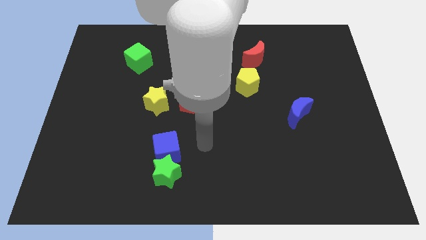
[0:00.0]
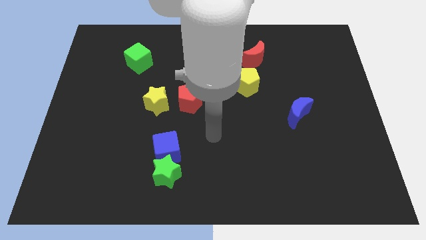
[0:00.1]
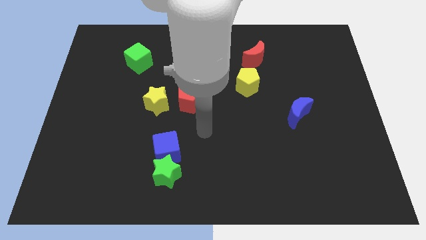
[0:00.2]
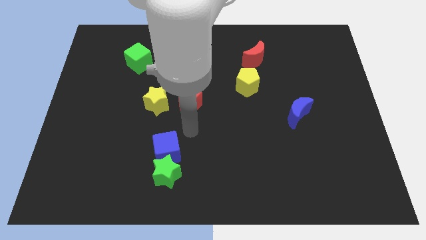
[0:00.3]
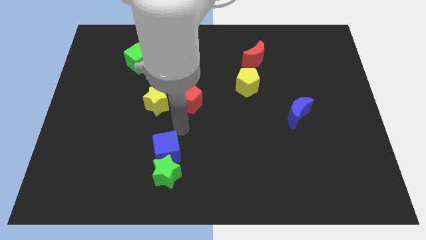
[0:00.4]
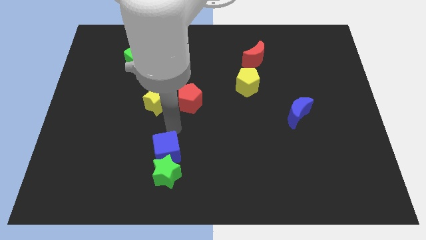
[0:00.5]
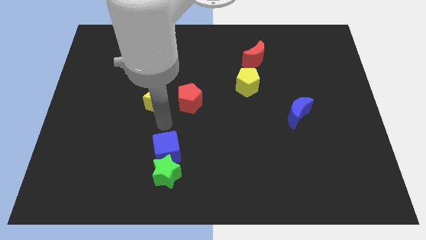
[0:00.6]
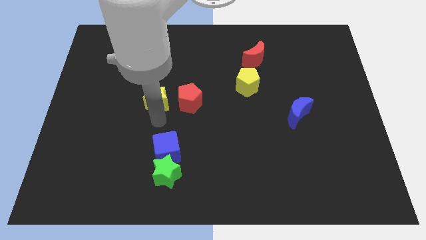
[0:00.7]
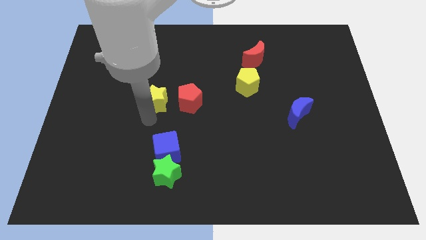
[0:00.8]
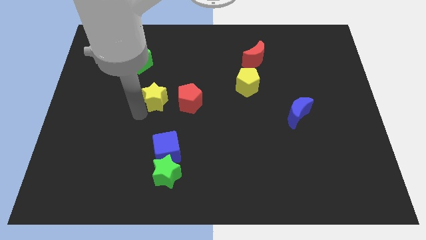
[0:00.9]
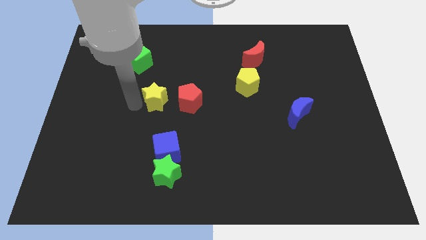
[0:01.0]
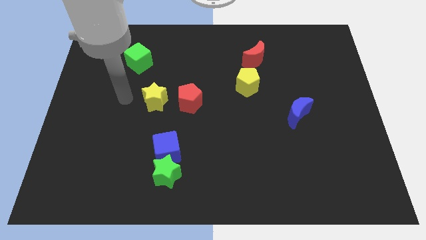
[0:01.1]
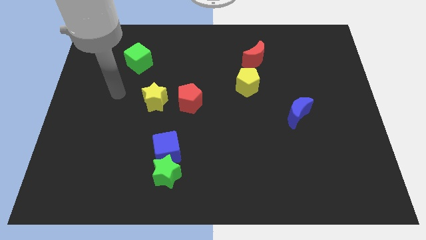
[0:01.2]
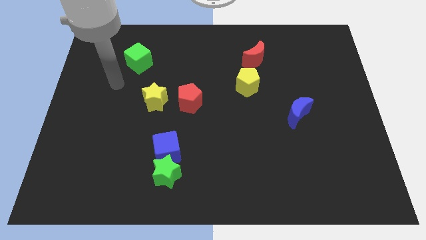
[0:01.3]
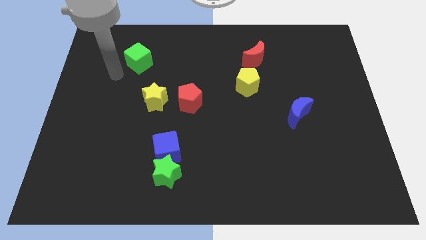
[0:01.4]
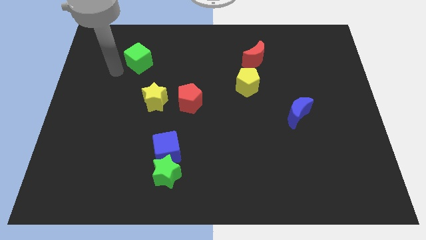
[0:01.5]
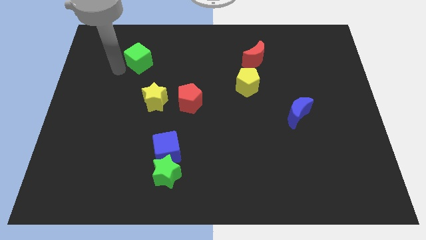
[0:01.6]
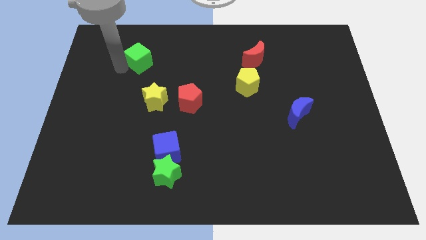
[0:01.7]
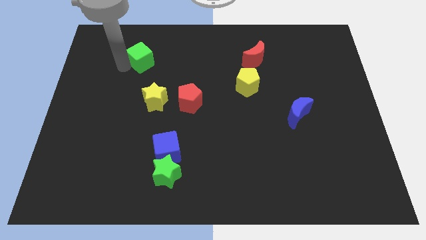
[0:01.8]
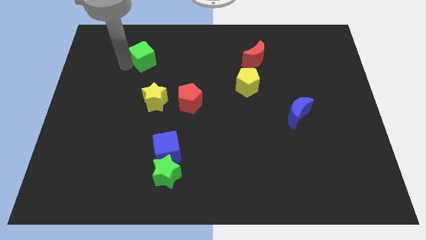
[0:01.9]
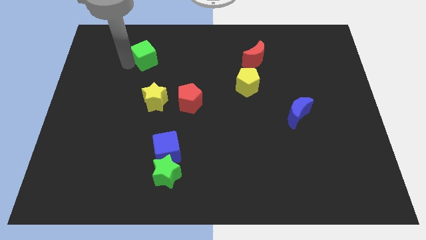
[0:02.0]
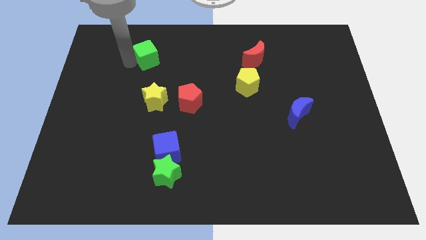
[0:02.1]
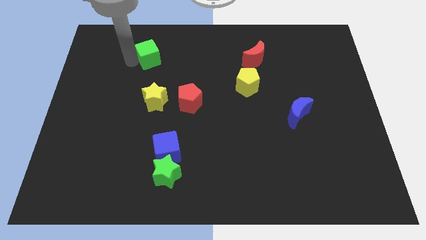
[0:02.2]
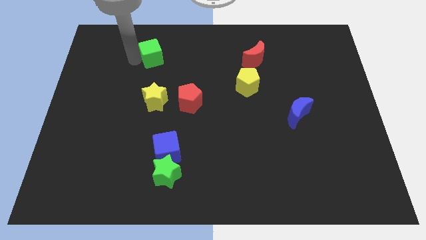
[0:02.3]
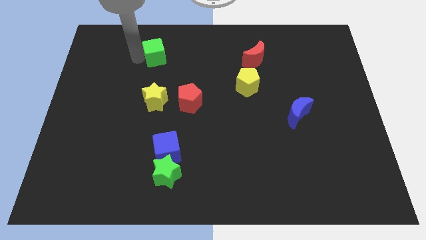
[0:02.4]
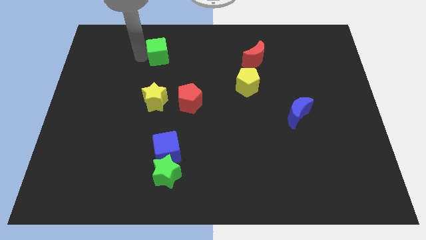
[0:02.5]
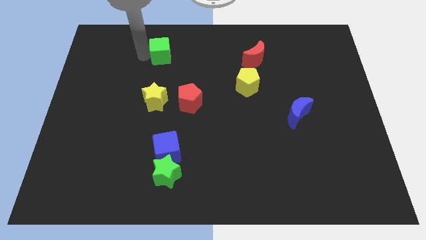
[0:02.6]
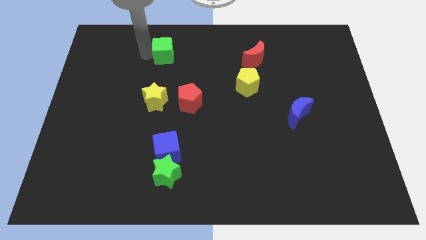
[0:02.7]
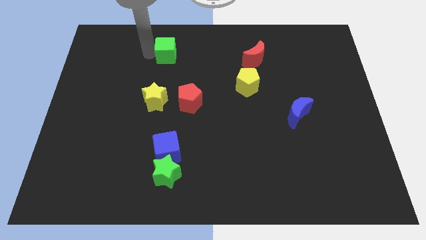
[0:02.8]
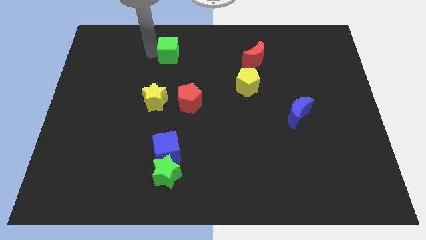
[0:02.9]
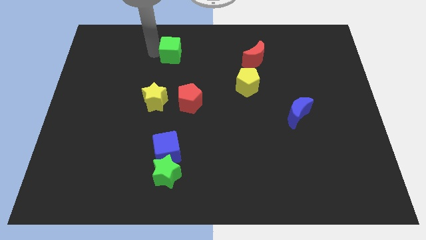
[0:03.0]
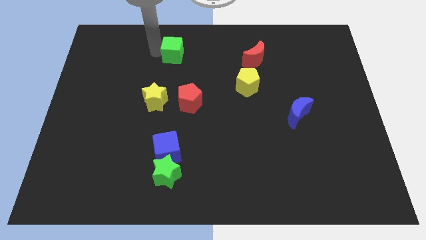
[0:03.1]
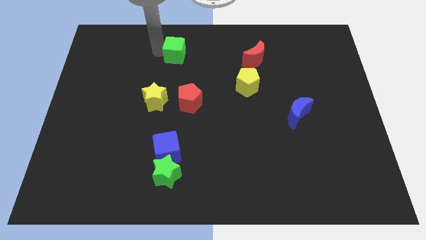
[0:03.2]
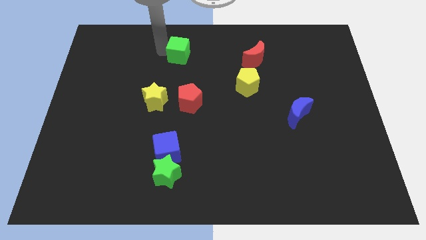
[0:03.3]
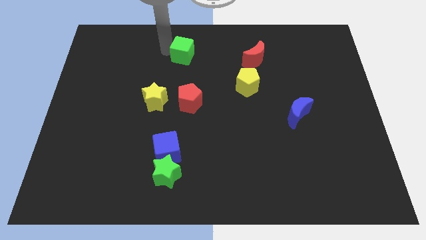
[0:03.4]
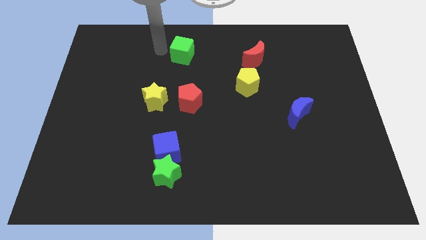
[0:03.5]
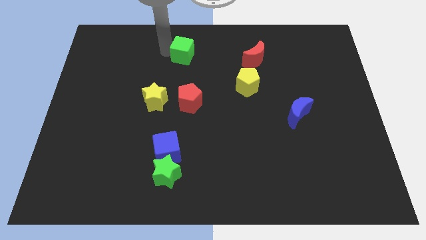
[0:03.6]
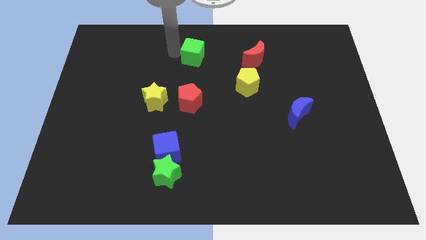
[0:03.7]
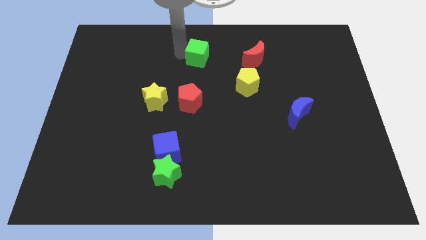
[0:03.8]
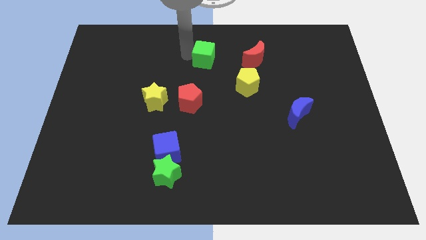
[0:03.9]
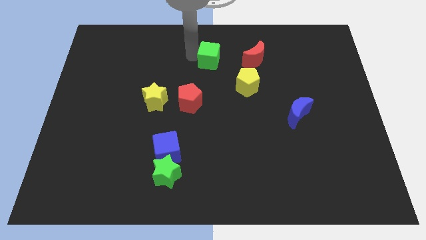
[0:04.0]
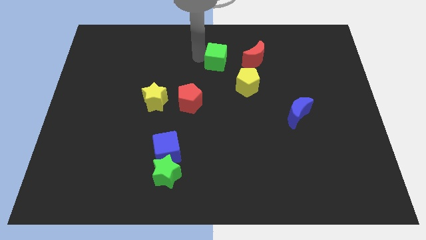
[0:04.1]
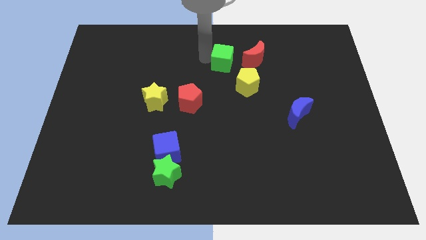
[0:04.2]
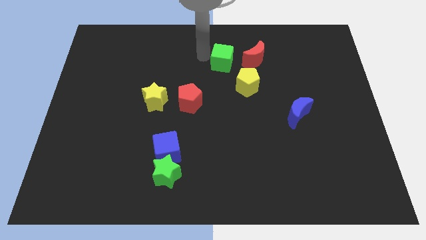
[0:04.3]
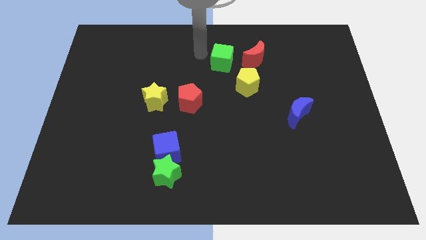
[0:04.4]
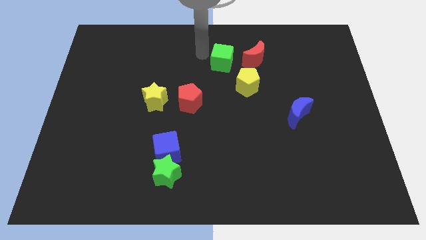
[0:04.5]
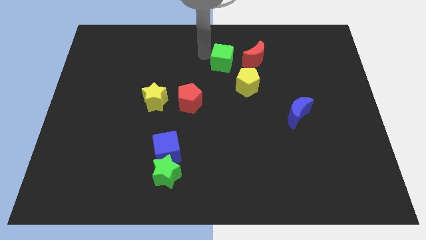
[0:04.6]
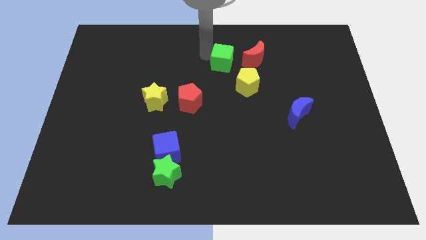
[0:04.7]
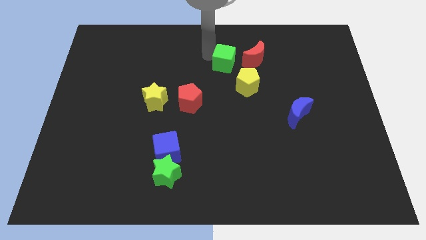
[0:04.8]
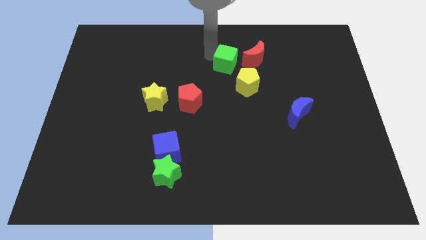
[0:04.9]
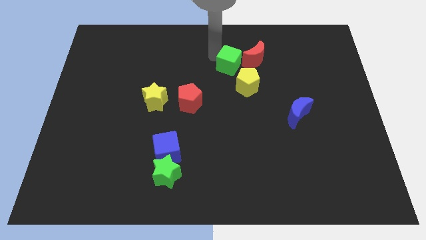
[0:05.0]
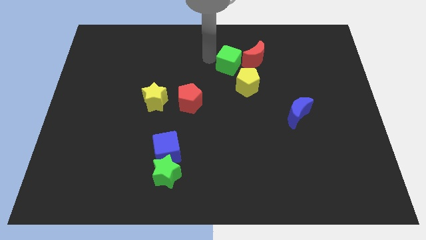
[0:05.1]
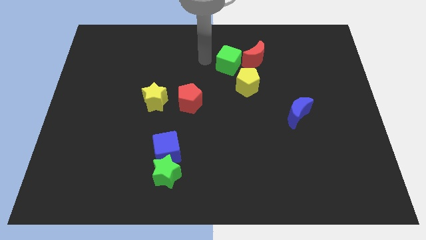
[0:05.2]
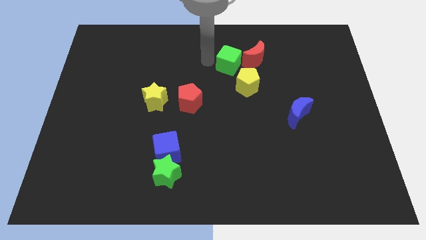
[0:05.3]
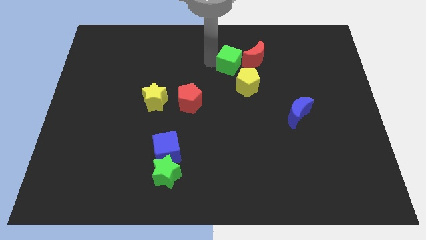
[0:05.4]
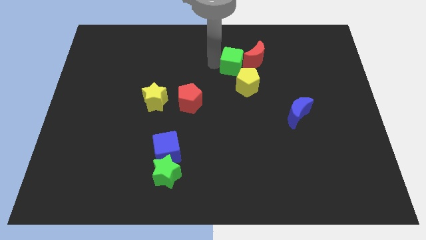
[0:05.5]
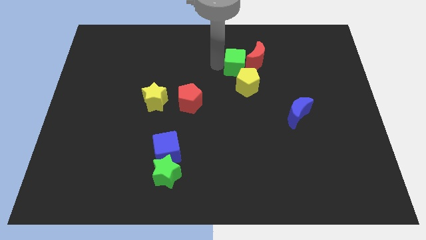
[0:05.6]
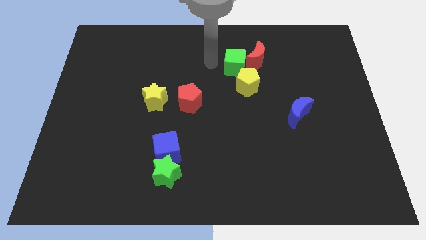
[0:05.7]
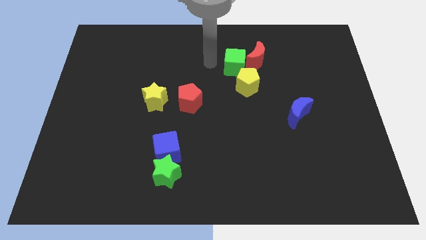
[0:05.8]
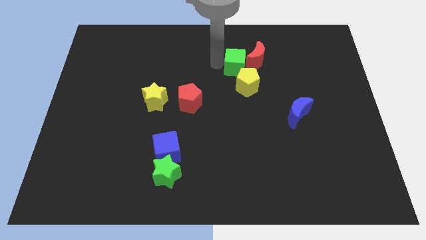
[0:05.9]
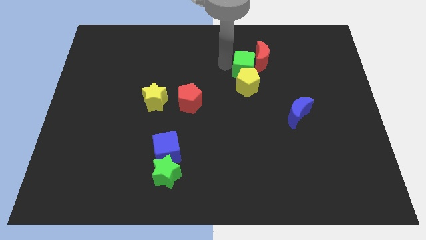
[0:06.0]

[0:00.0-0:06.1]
put the green cube diagonally up and to the right of the yellow pentagon

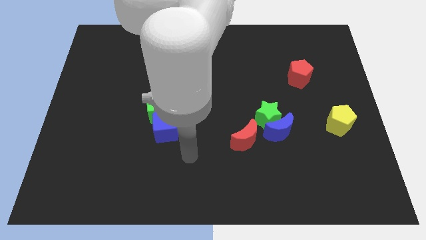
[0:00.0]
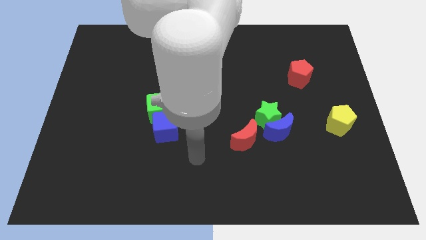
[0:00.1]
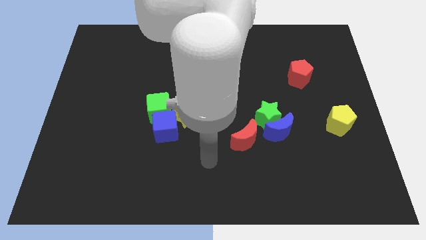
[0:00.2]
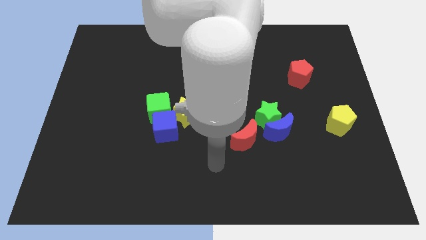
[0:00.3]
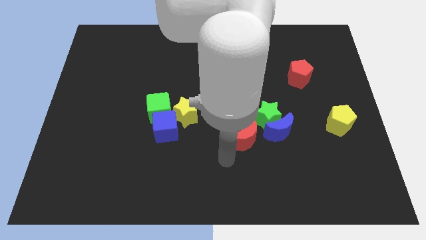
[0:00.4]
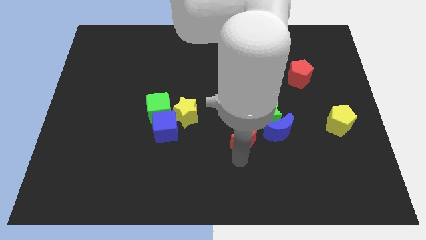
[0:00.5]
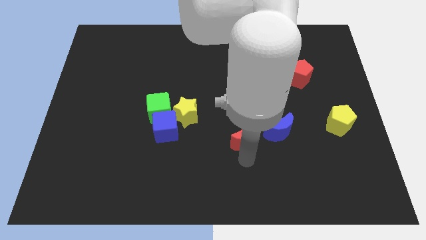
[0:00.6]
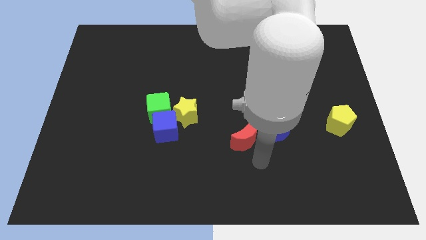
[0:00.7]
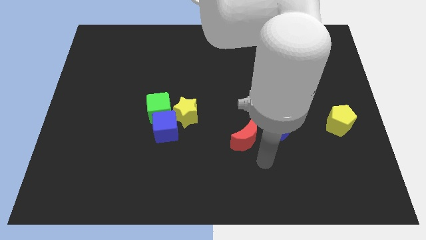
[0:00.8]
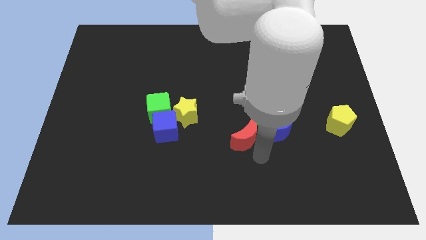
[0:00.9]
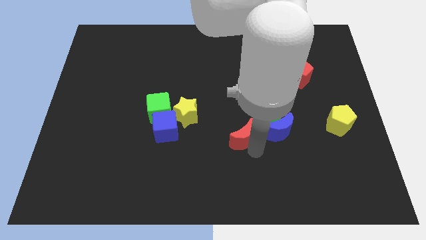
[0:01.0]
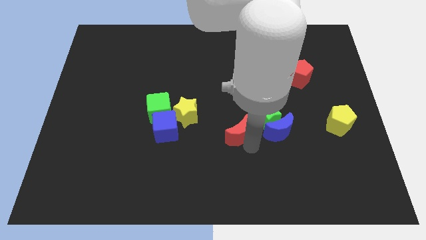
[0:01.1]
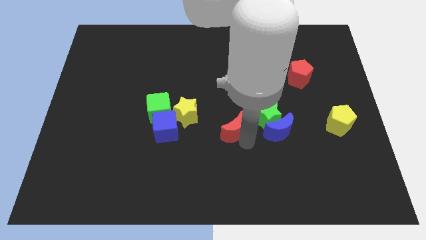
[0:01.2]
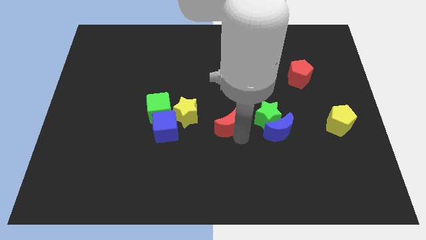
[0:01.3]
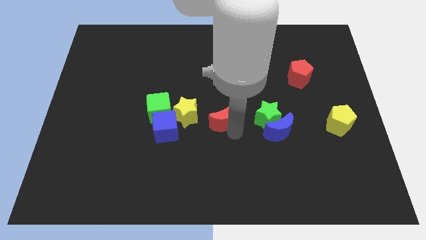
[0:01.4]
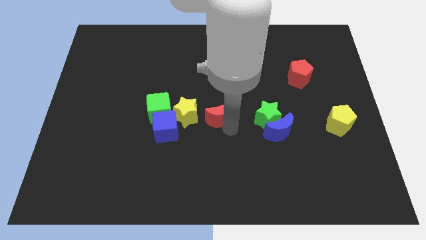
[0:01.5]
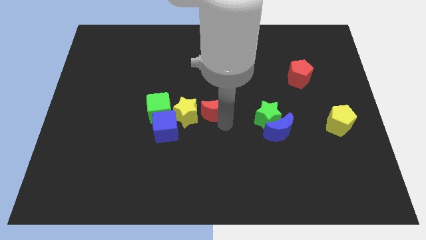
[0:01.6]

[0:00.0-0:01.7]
move the red moon diagonally up and to the right of the yellow star
